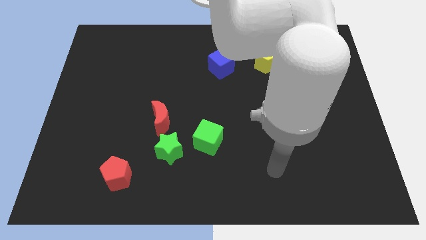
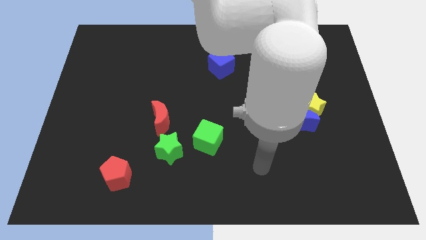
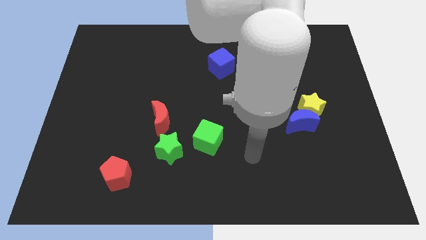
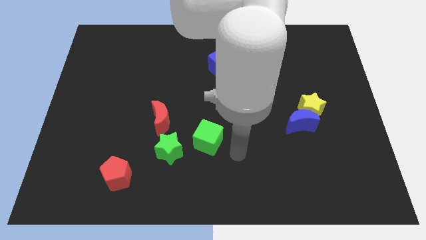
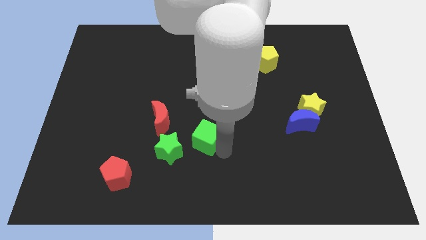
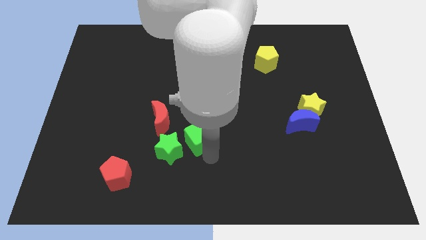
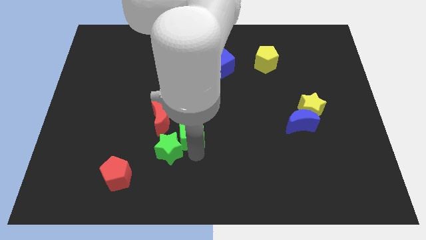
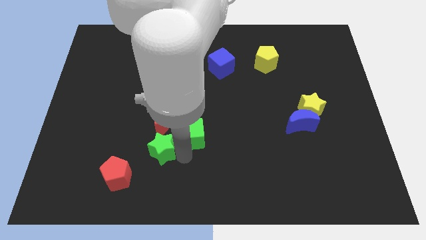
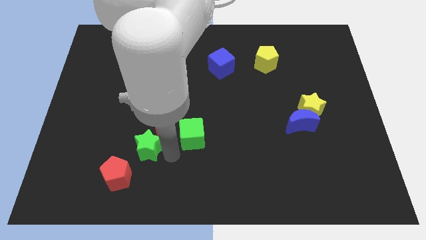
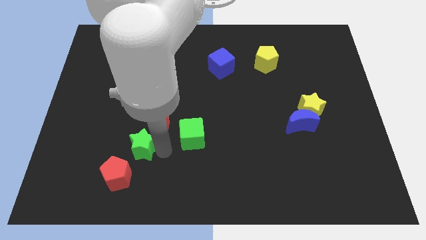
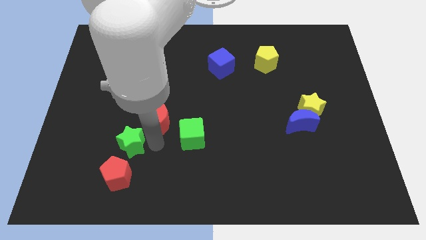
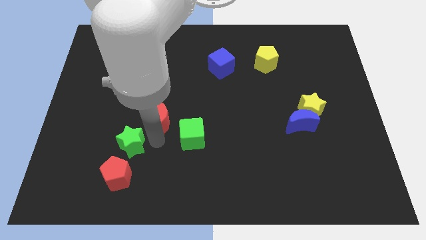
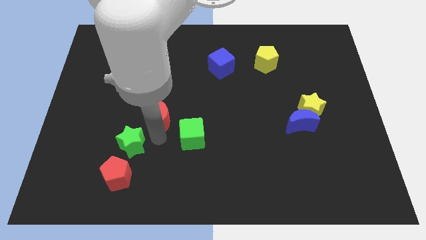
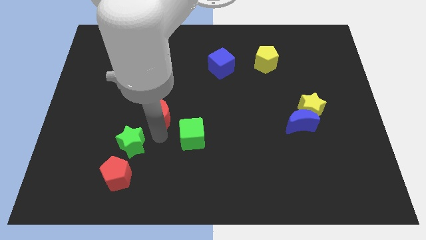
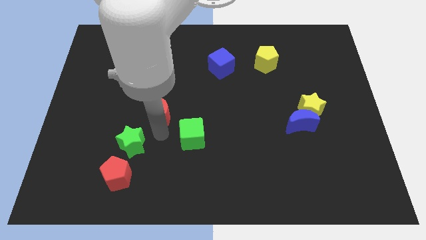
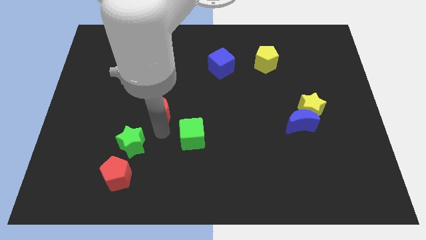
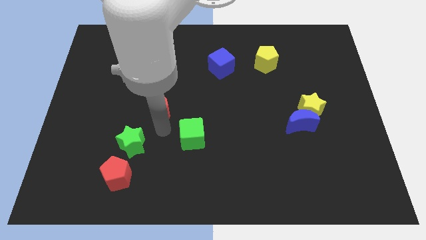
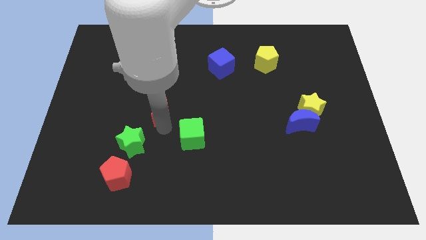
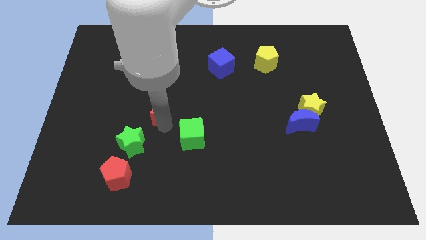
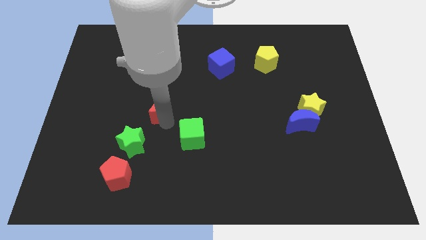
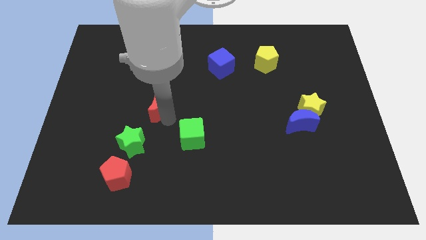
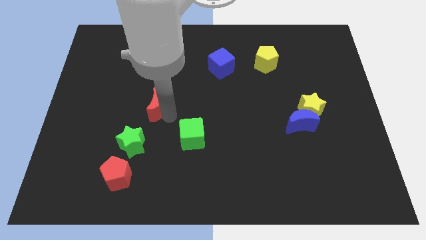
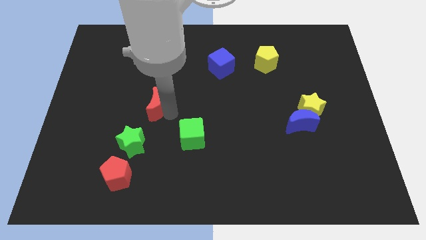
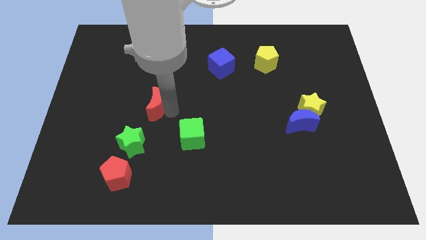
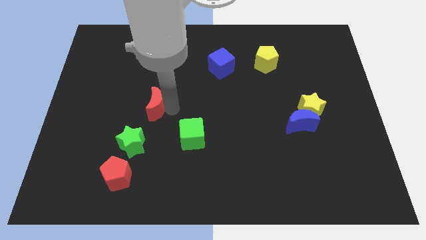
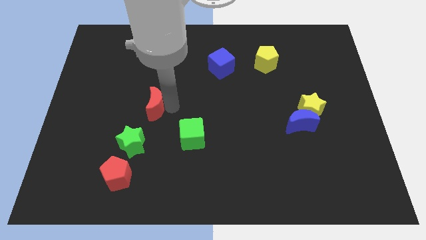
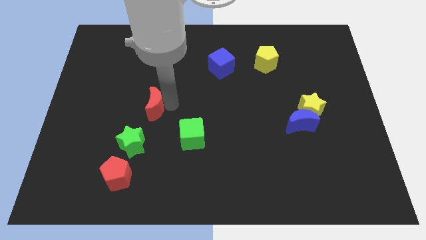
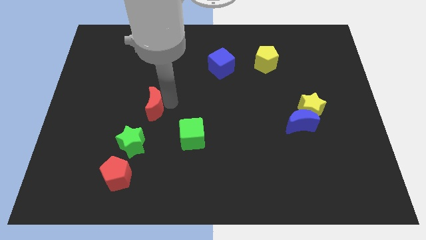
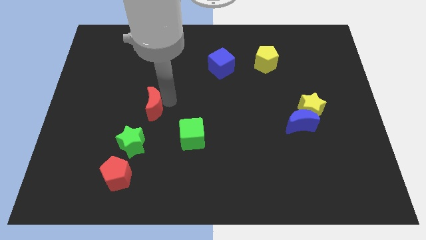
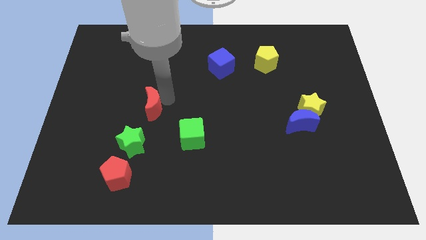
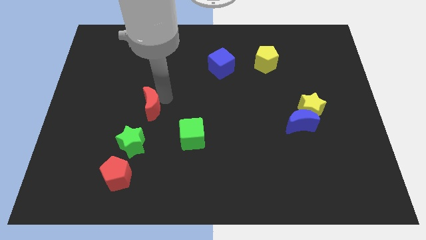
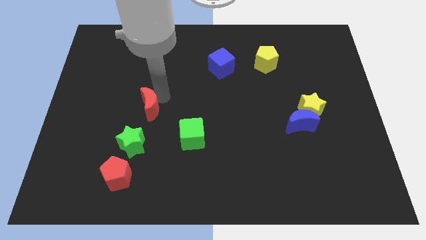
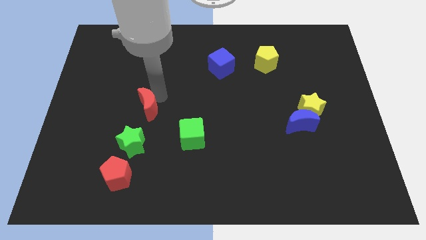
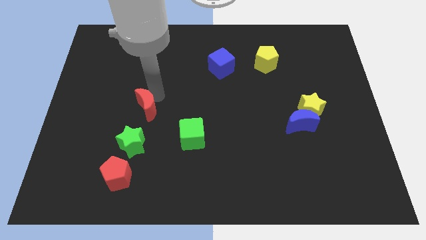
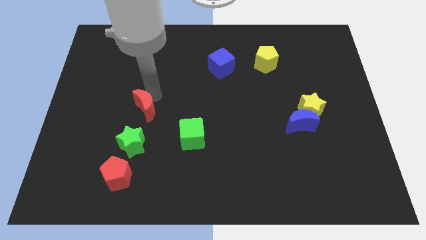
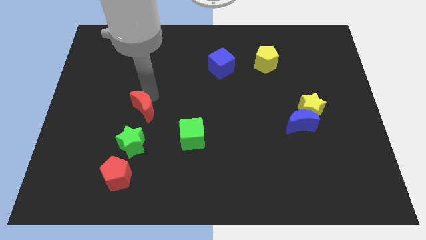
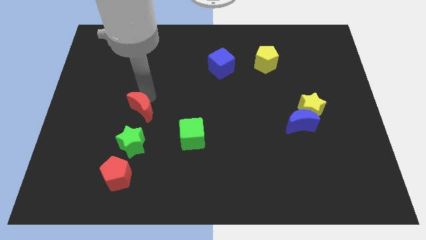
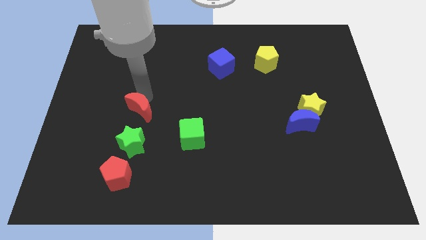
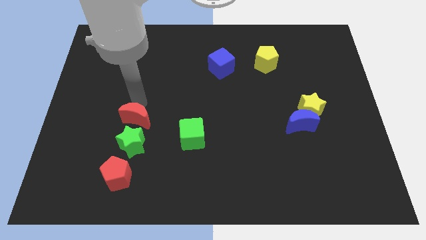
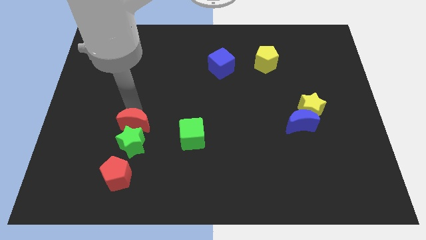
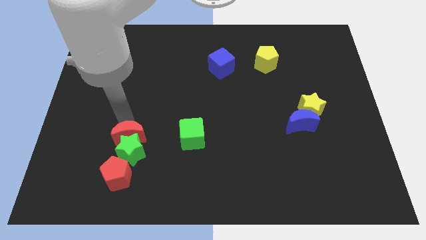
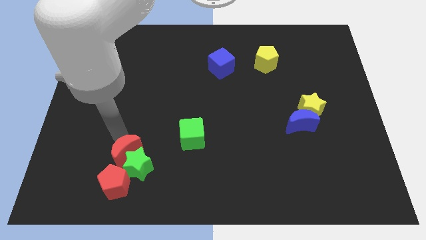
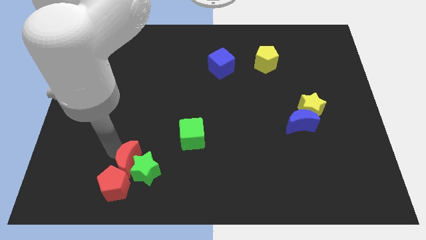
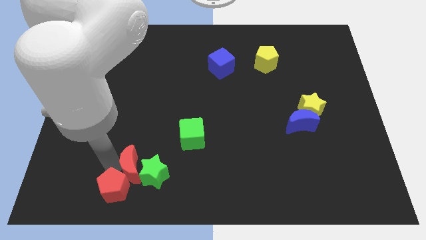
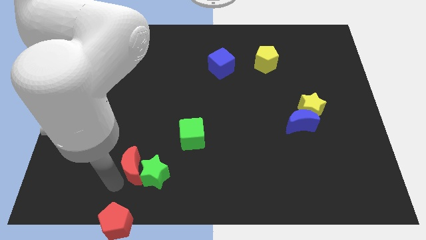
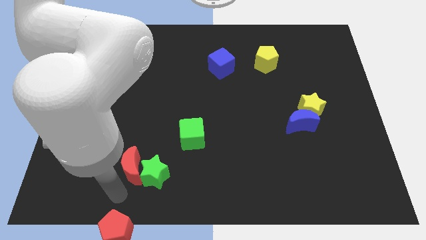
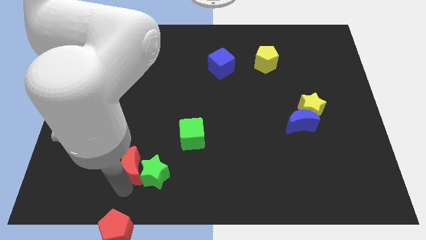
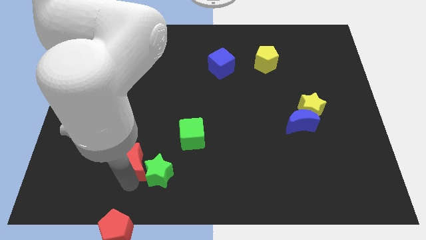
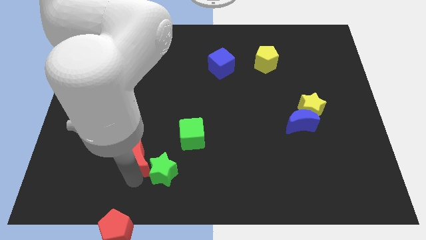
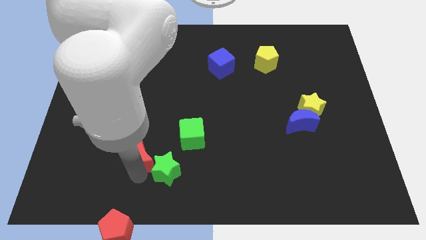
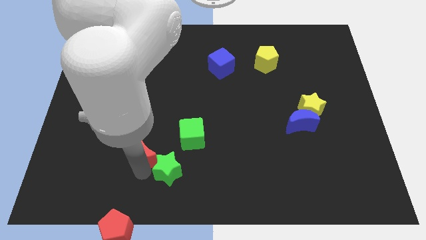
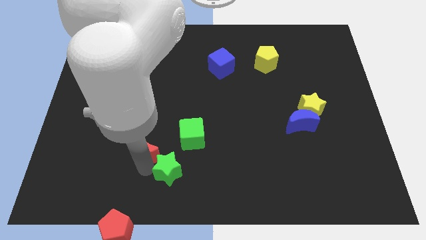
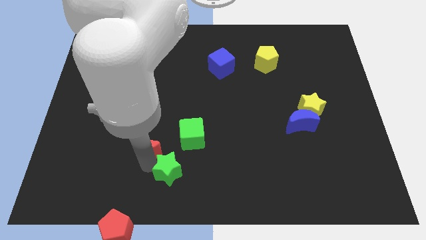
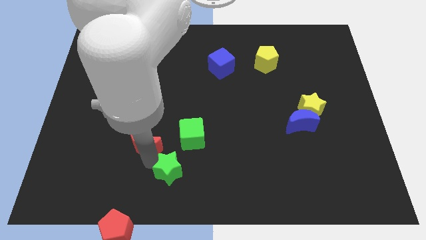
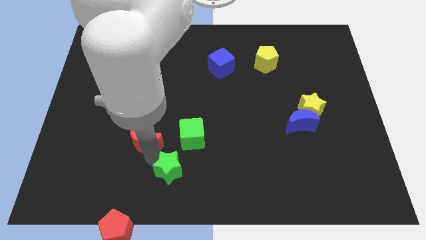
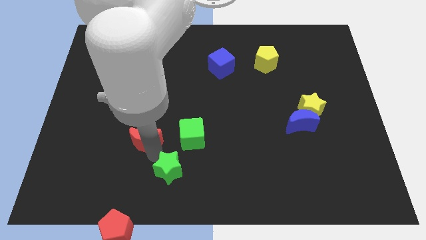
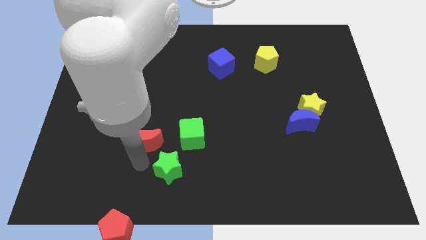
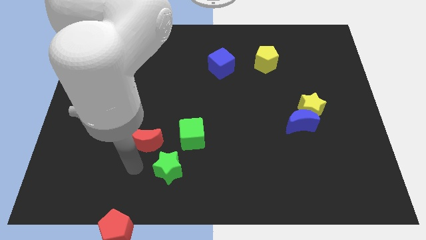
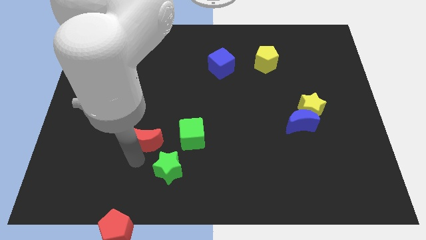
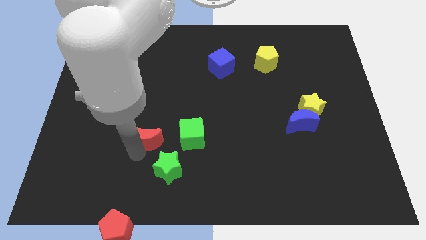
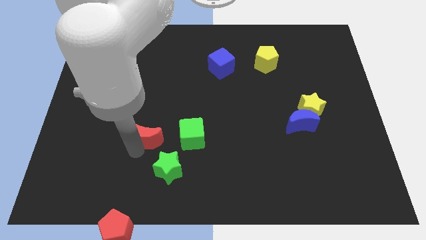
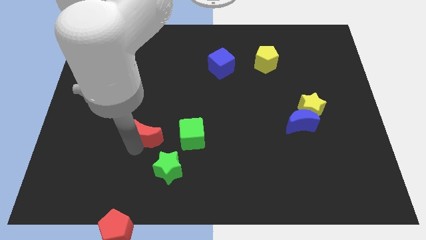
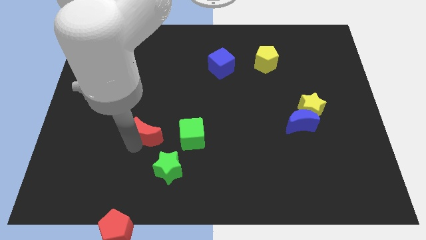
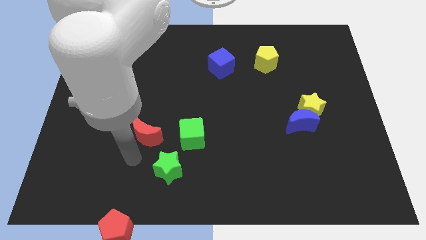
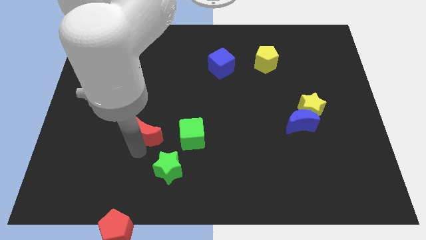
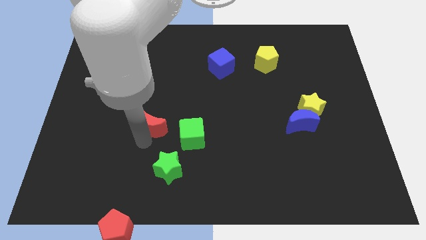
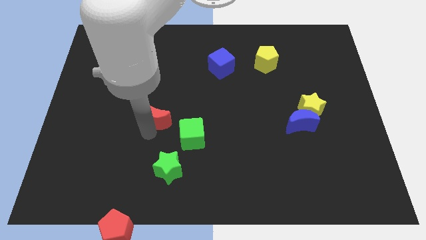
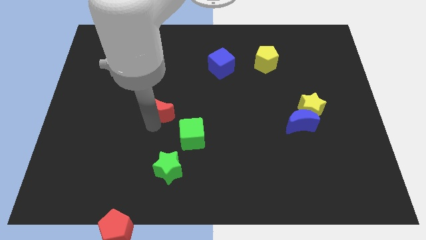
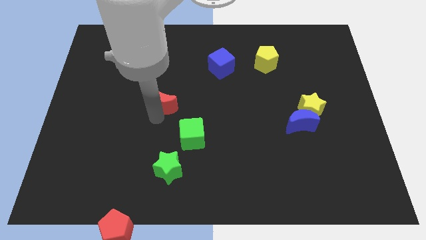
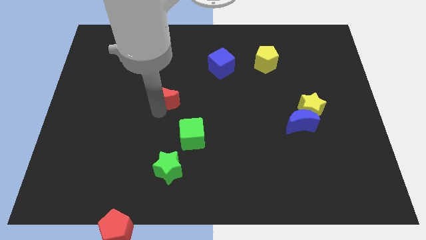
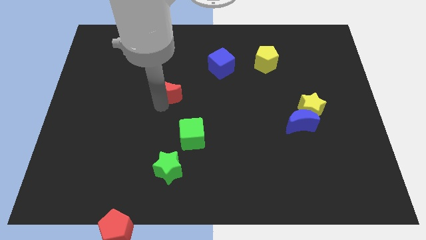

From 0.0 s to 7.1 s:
move the red moon a little up

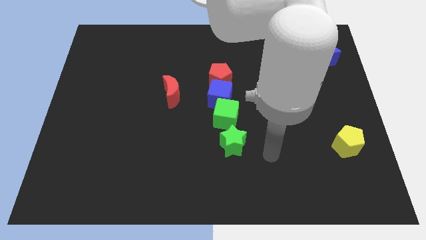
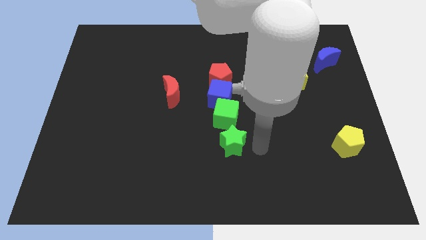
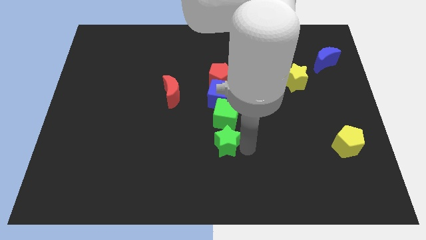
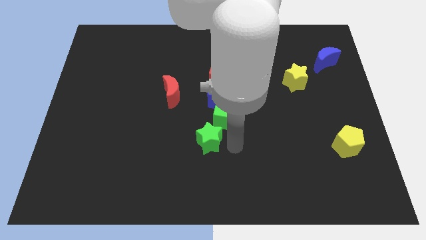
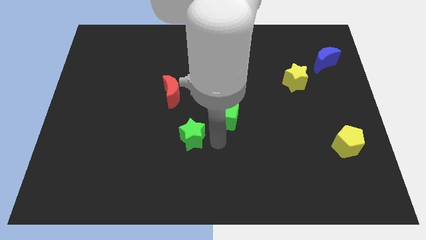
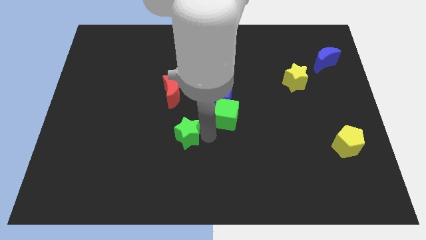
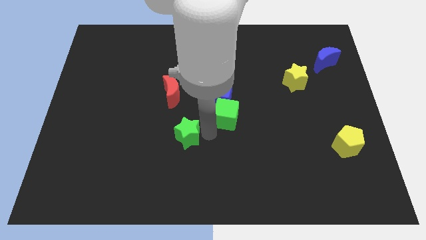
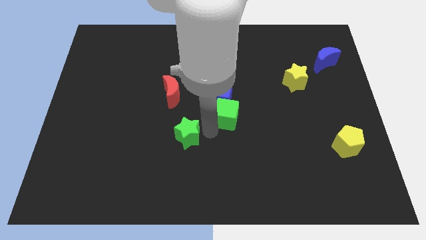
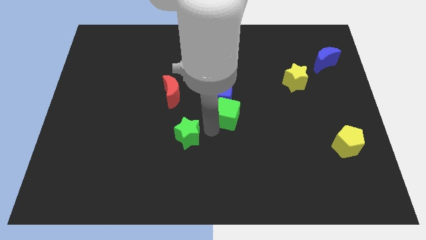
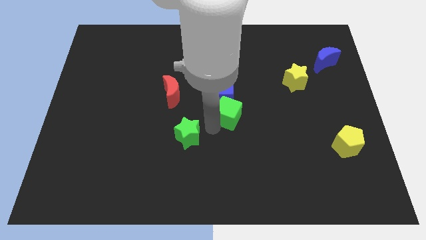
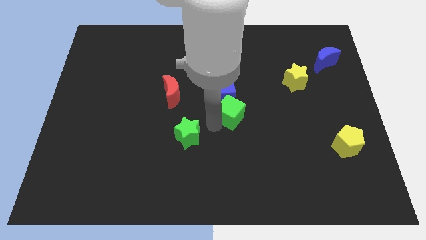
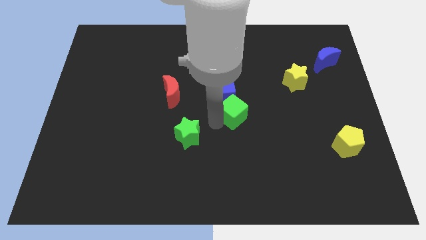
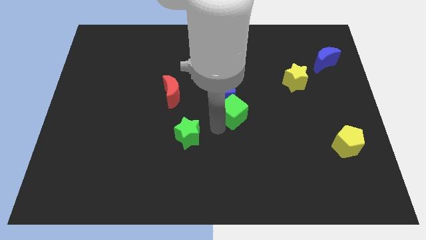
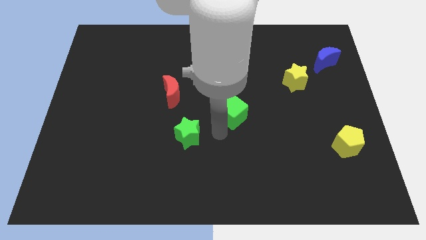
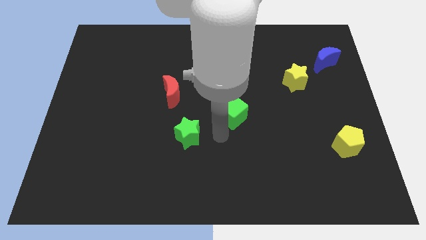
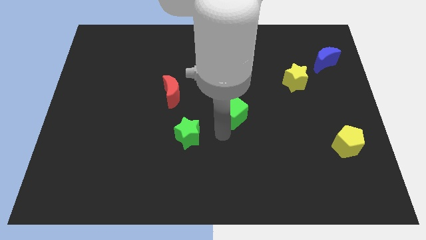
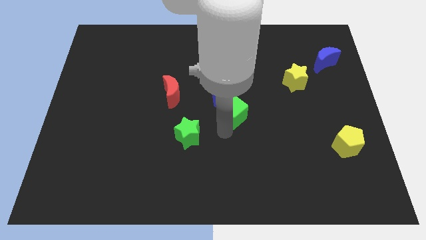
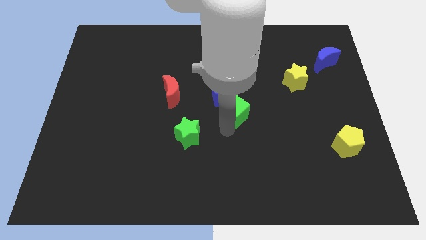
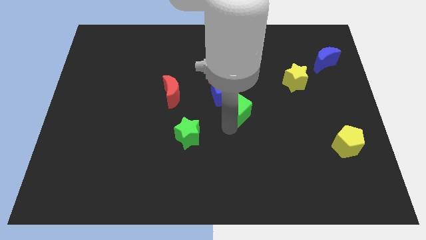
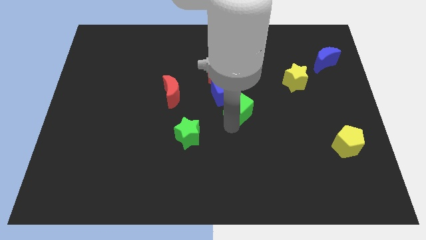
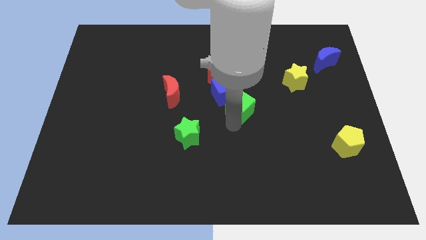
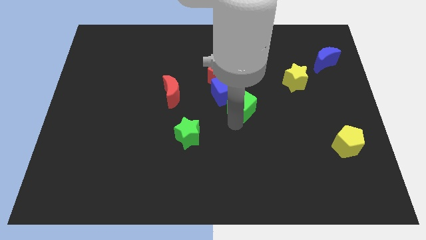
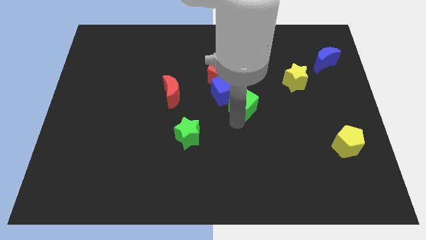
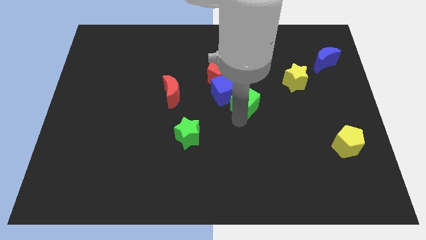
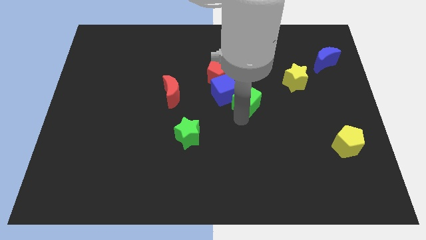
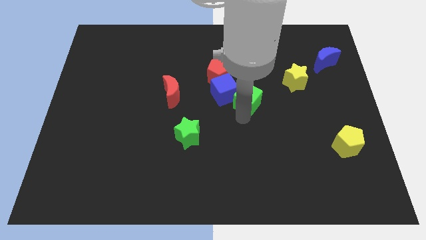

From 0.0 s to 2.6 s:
push the green cube up and right a little bit
